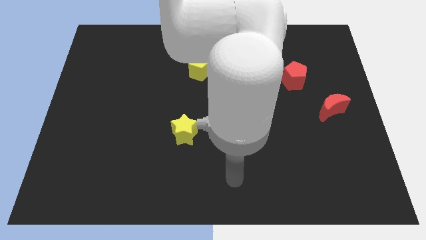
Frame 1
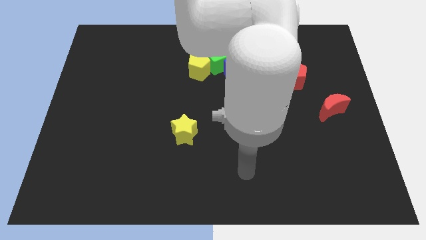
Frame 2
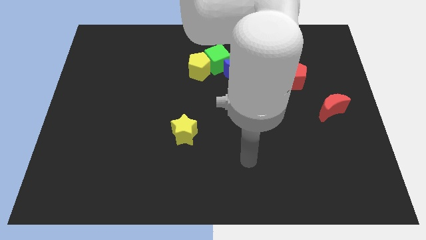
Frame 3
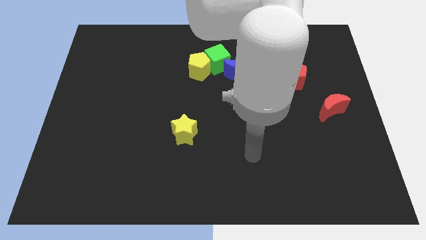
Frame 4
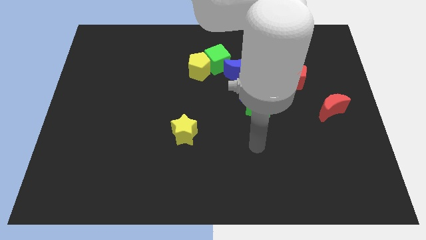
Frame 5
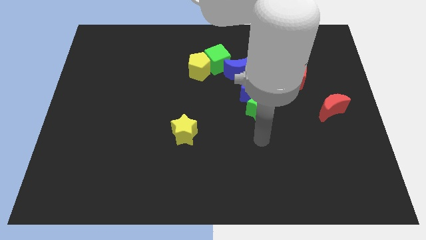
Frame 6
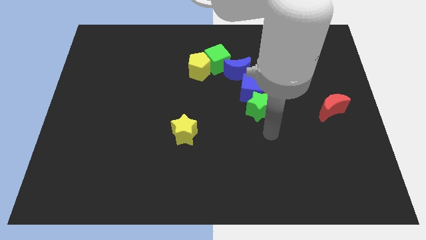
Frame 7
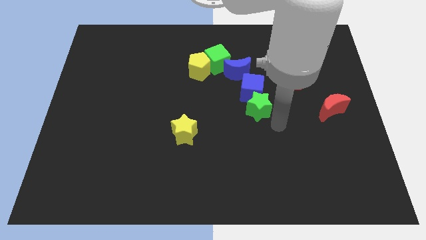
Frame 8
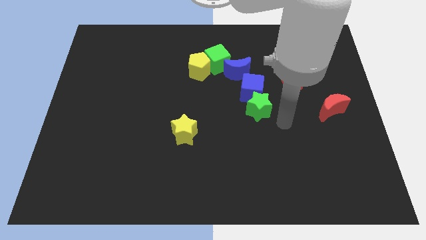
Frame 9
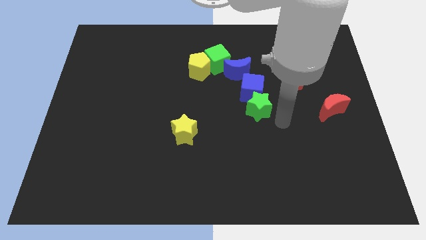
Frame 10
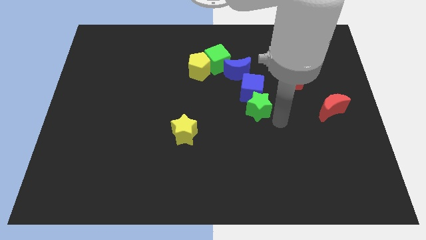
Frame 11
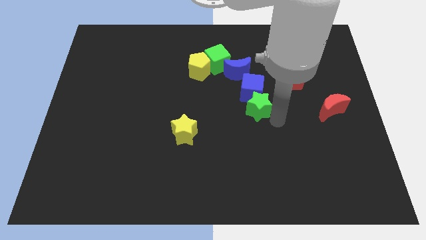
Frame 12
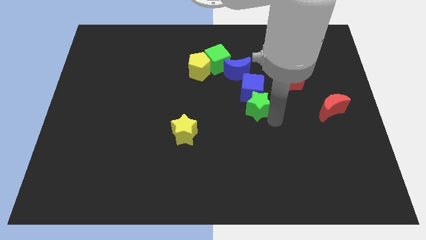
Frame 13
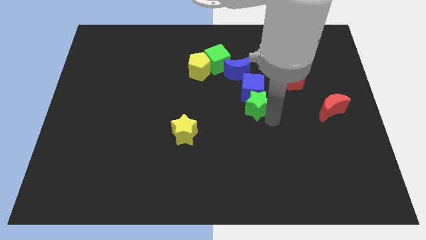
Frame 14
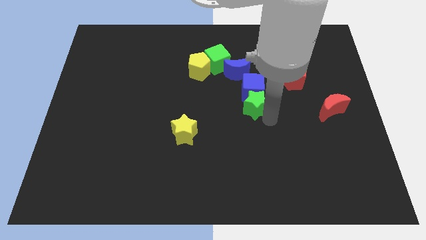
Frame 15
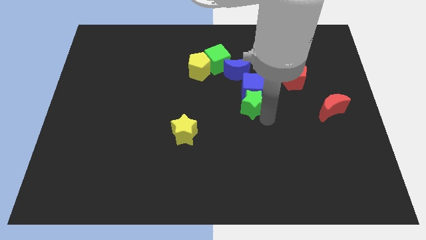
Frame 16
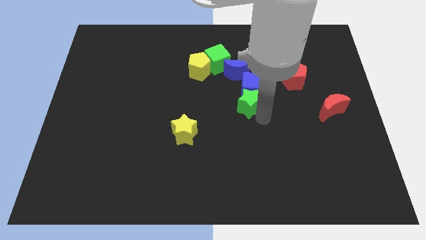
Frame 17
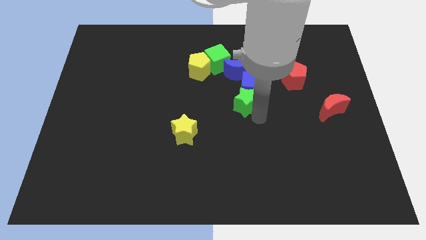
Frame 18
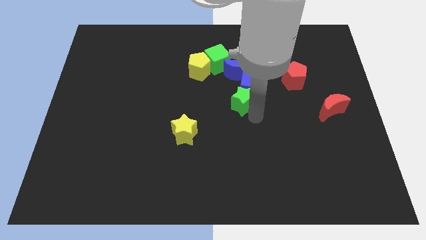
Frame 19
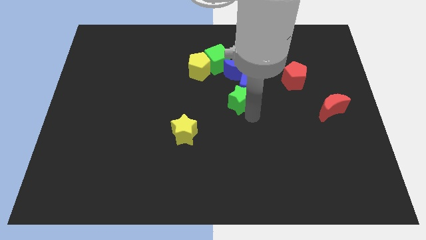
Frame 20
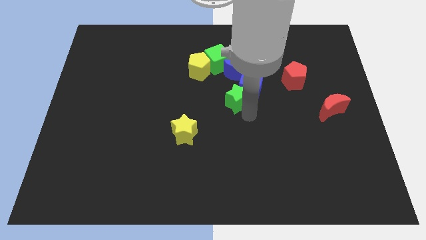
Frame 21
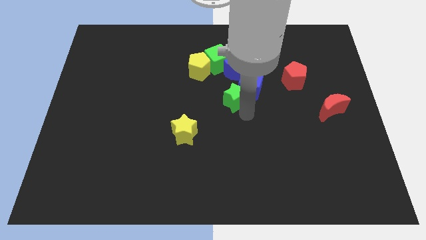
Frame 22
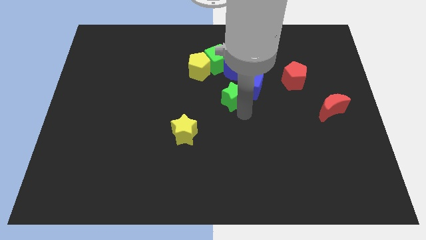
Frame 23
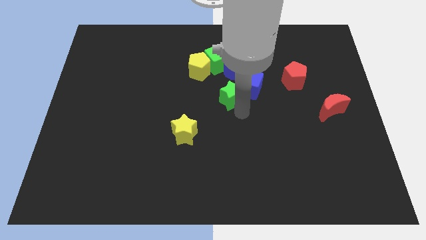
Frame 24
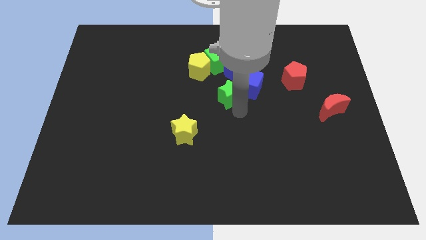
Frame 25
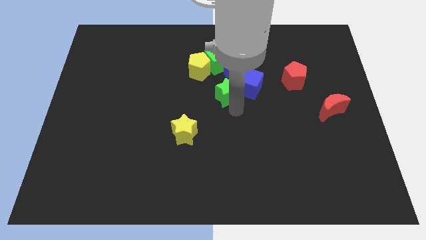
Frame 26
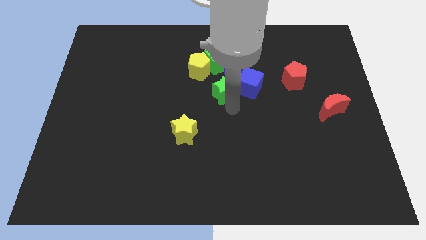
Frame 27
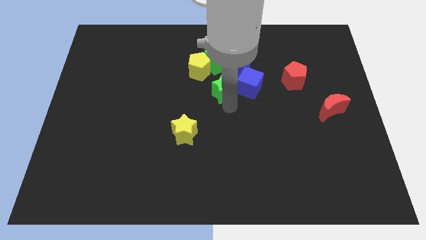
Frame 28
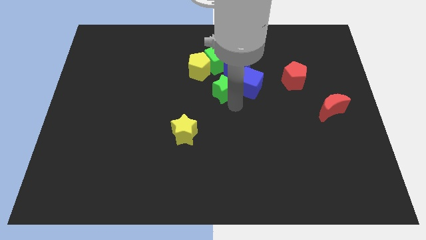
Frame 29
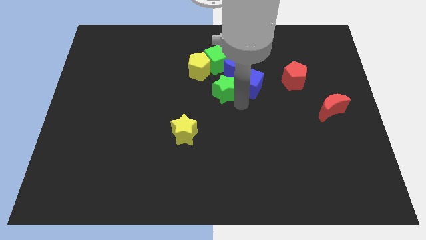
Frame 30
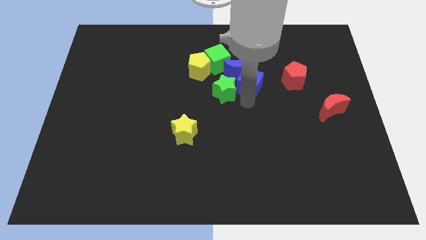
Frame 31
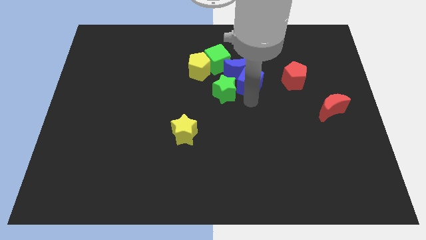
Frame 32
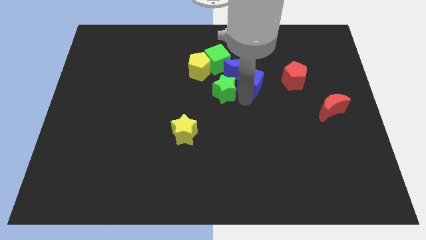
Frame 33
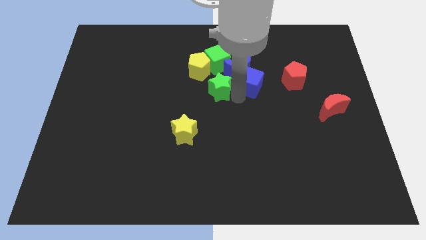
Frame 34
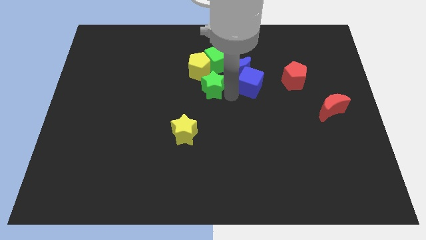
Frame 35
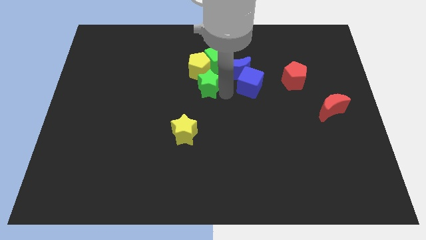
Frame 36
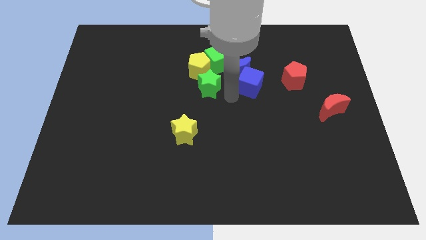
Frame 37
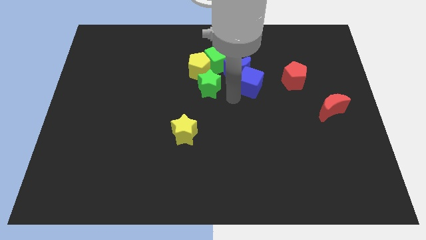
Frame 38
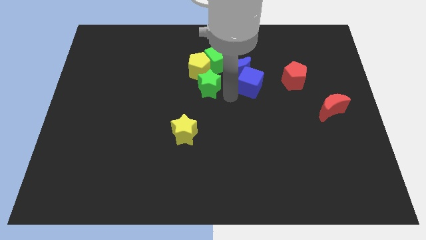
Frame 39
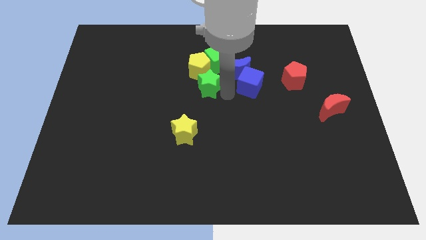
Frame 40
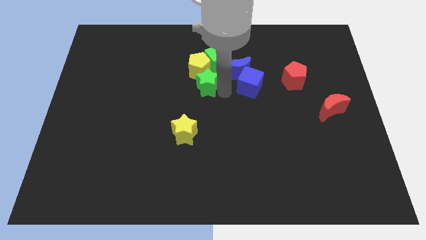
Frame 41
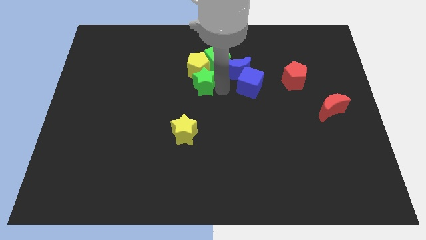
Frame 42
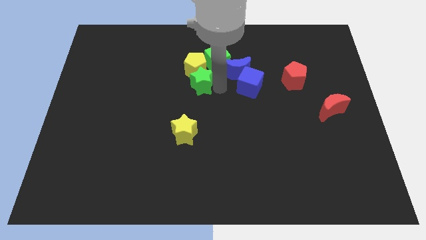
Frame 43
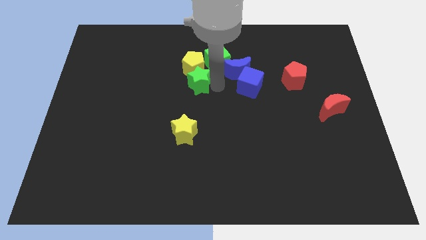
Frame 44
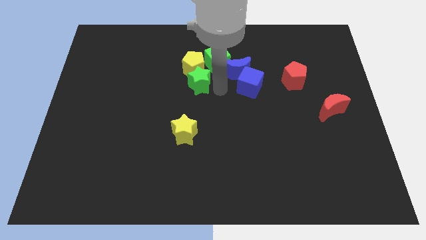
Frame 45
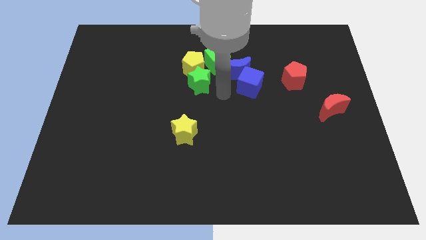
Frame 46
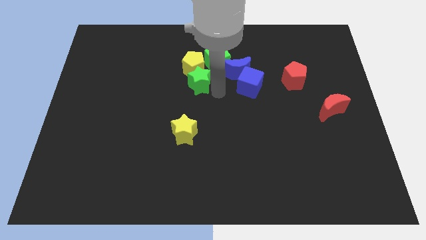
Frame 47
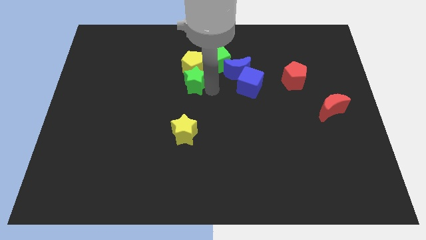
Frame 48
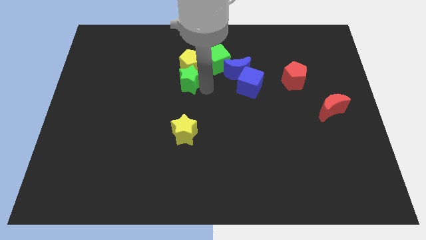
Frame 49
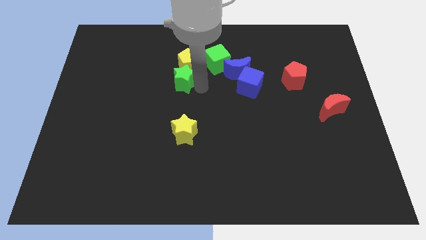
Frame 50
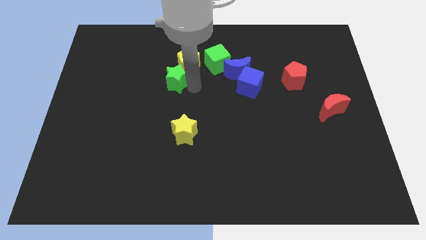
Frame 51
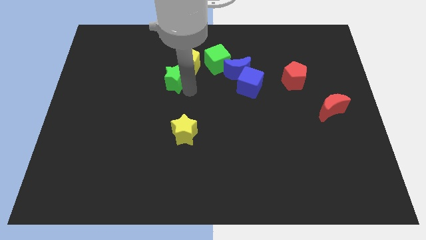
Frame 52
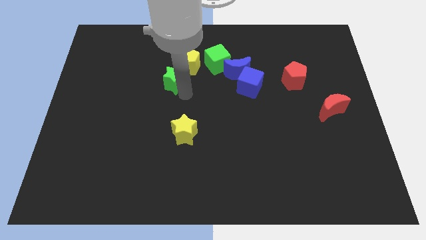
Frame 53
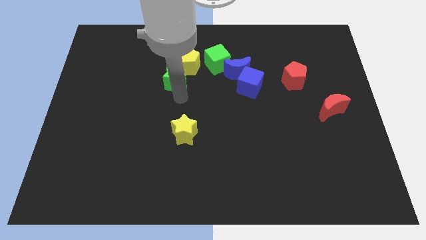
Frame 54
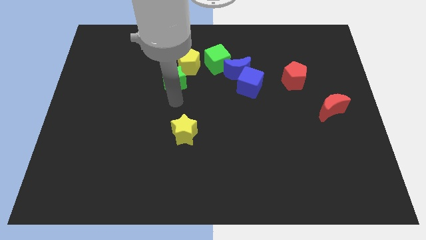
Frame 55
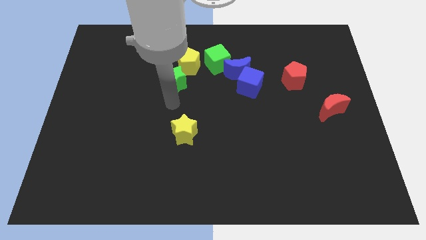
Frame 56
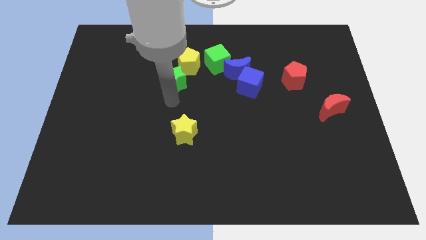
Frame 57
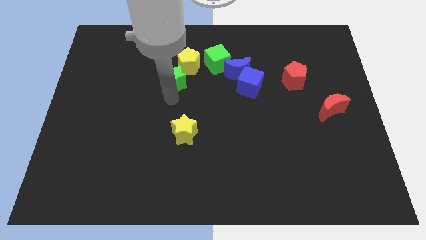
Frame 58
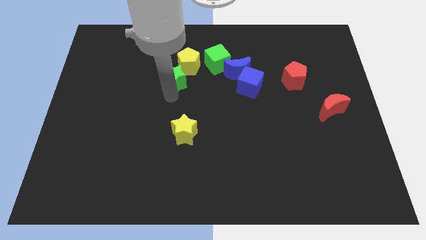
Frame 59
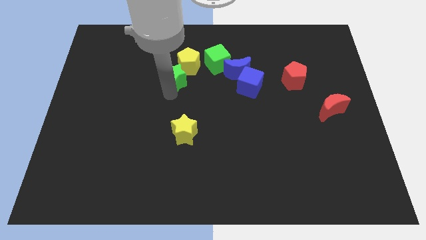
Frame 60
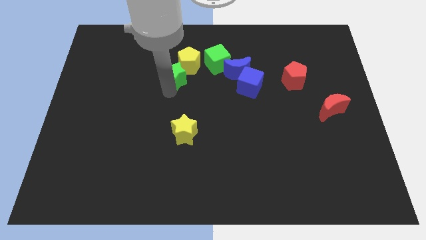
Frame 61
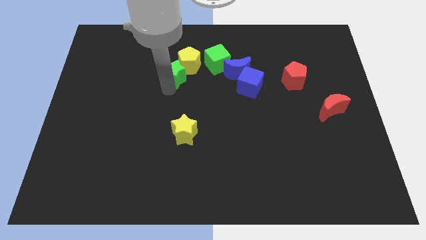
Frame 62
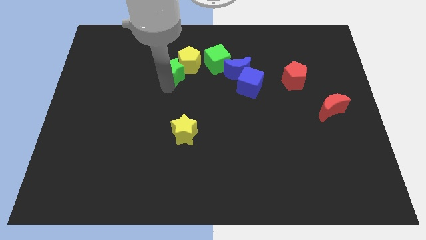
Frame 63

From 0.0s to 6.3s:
slide the green star to the left side of the green cube

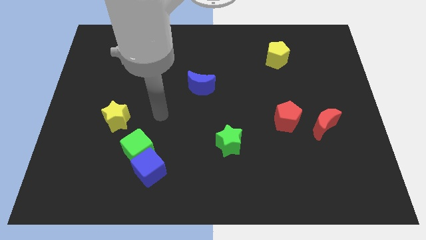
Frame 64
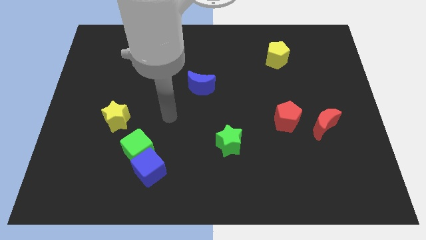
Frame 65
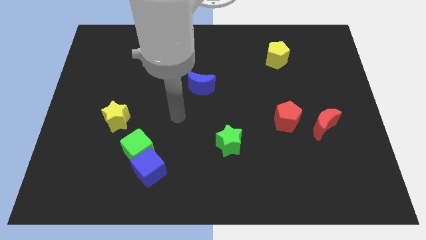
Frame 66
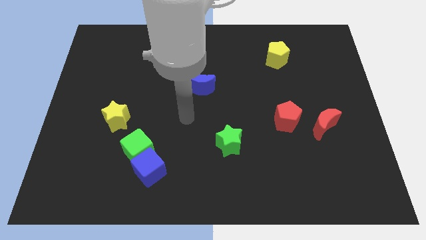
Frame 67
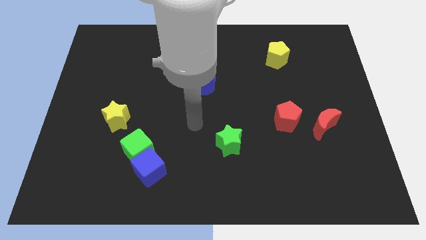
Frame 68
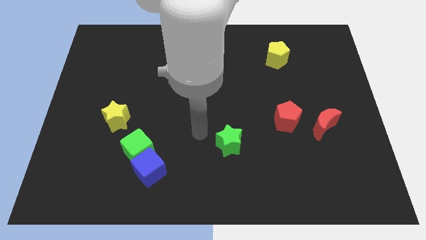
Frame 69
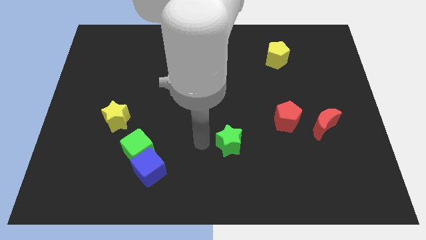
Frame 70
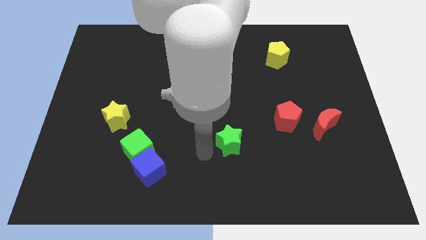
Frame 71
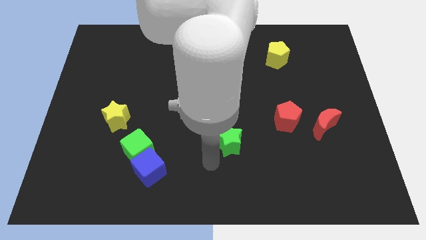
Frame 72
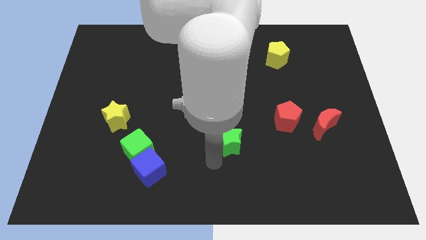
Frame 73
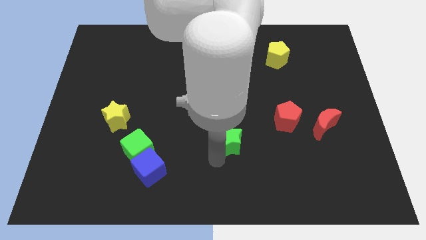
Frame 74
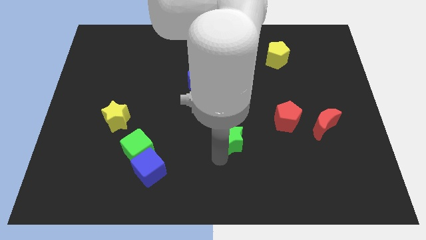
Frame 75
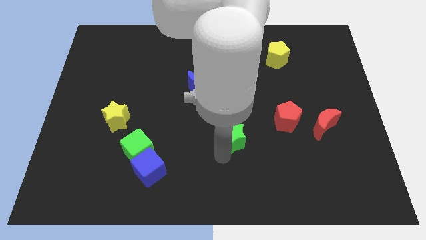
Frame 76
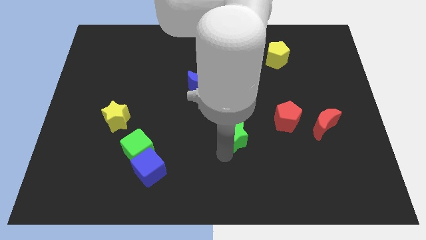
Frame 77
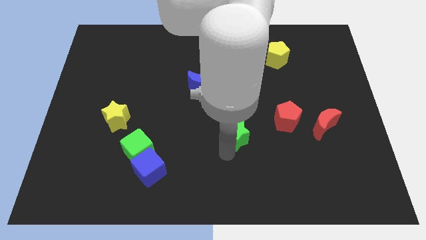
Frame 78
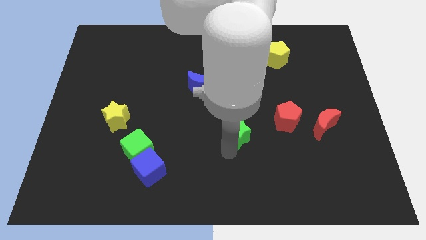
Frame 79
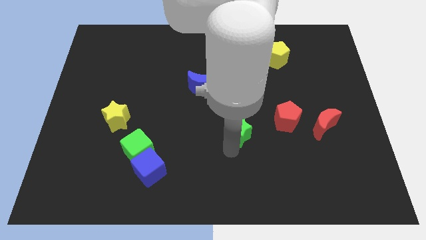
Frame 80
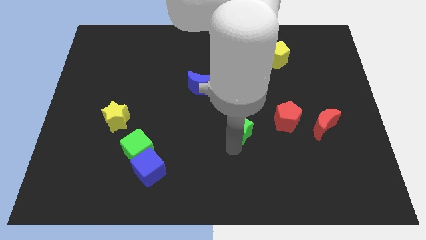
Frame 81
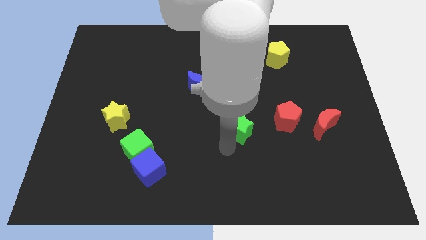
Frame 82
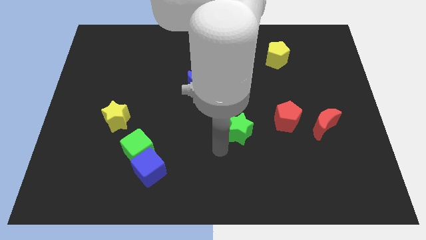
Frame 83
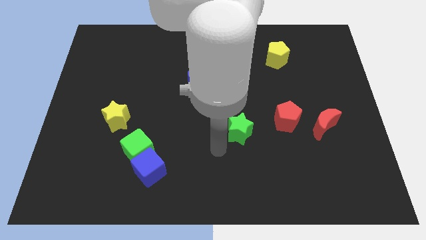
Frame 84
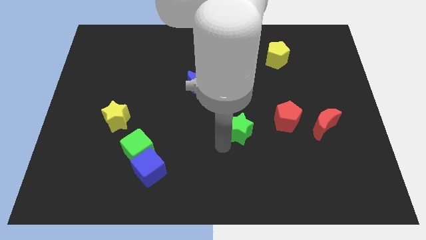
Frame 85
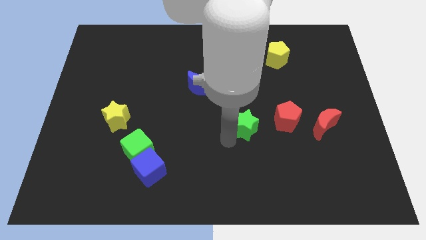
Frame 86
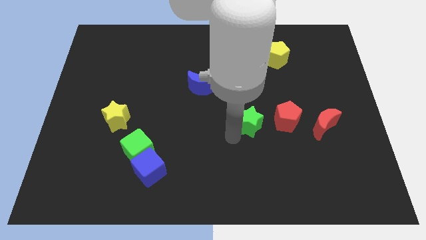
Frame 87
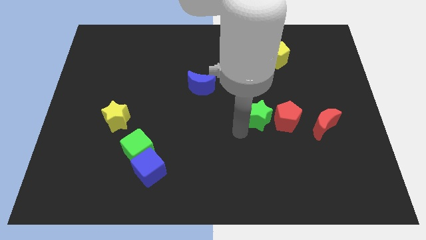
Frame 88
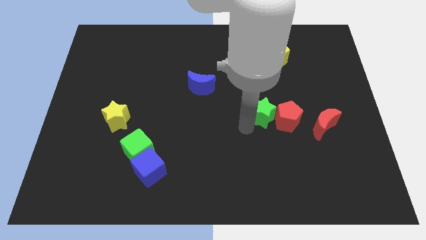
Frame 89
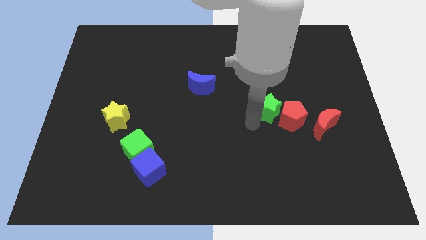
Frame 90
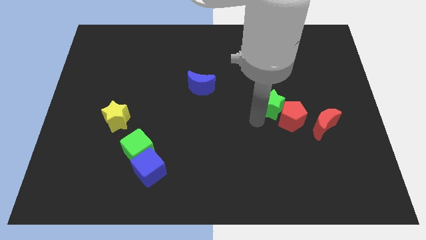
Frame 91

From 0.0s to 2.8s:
push the green star to the top side of the red pentagon
